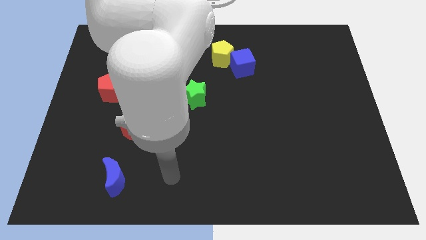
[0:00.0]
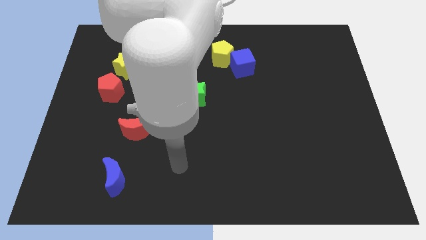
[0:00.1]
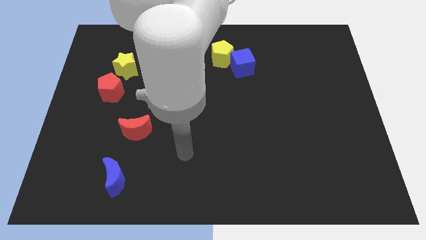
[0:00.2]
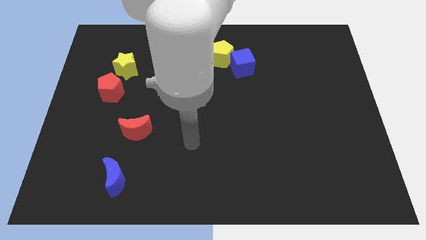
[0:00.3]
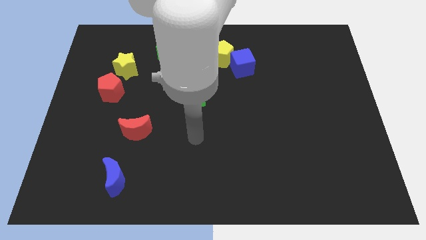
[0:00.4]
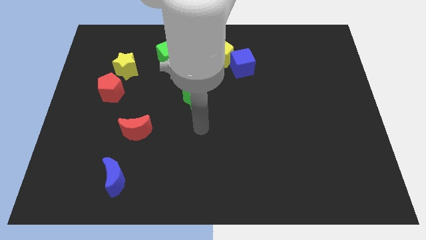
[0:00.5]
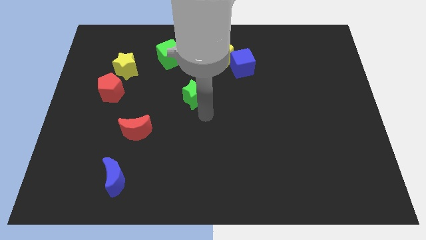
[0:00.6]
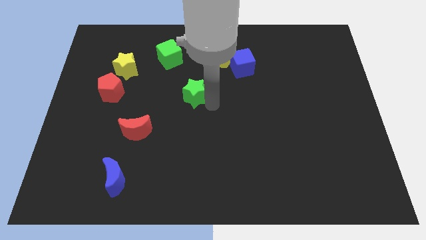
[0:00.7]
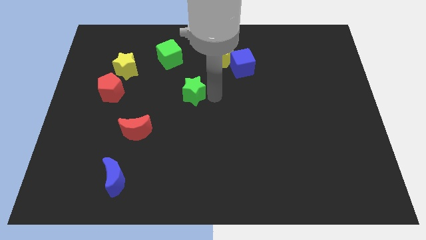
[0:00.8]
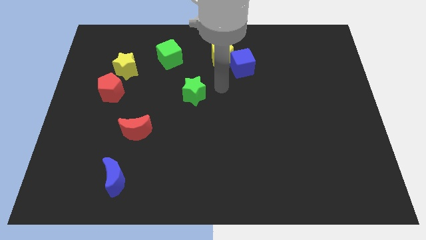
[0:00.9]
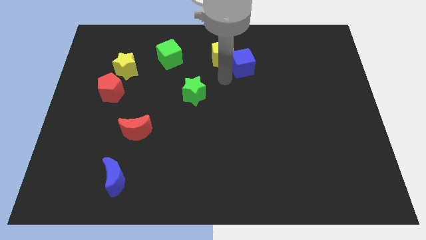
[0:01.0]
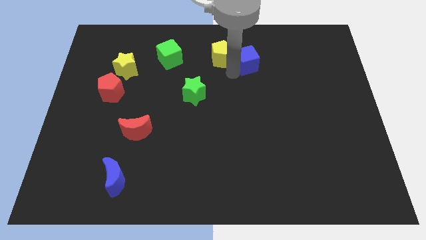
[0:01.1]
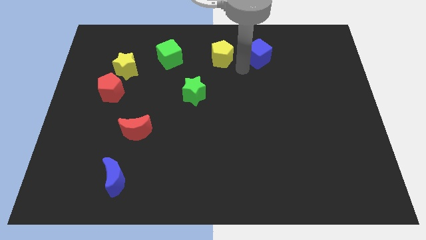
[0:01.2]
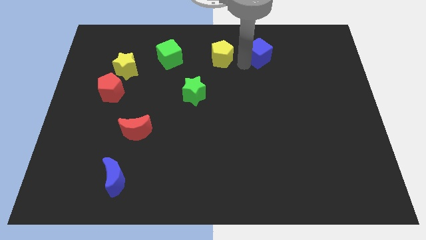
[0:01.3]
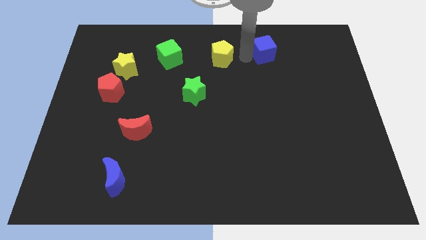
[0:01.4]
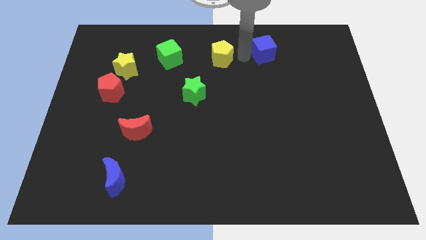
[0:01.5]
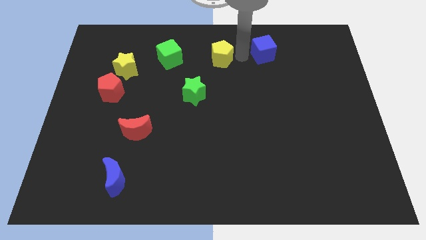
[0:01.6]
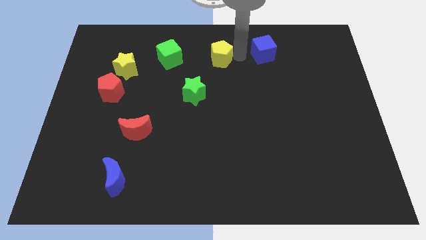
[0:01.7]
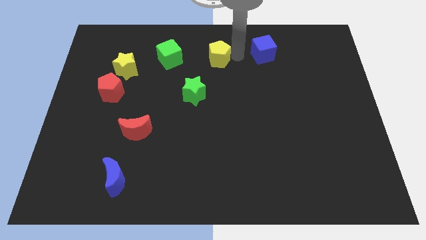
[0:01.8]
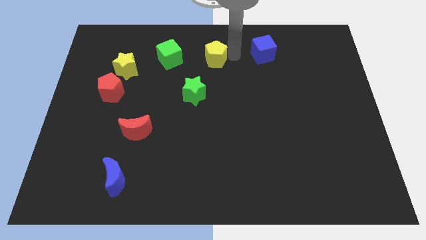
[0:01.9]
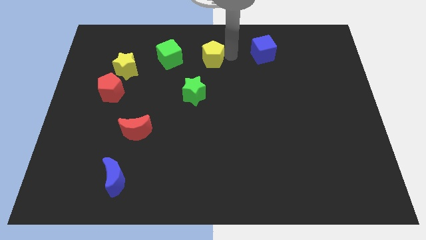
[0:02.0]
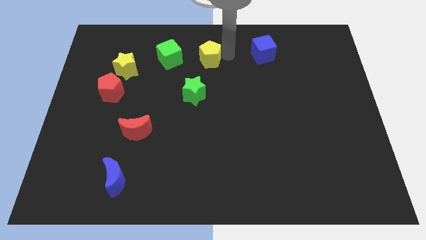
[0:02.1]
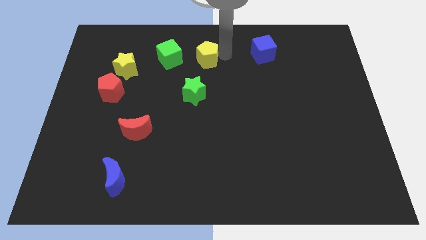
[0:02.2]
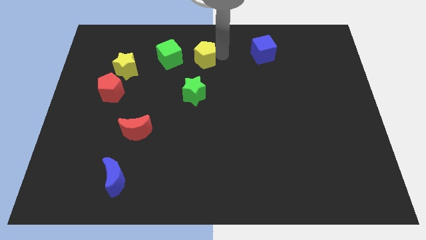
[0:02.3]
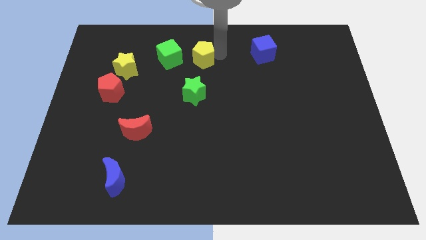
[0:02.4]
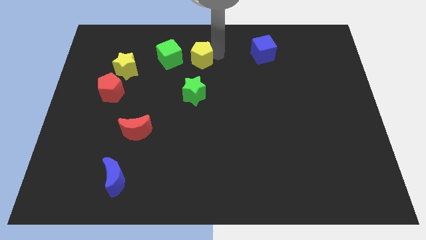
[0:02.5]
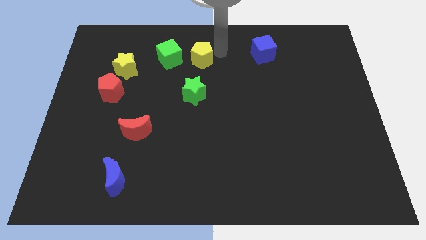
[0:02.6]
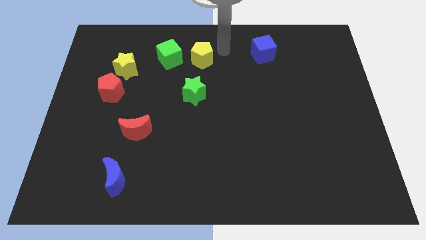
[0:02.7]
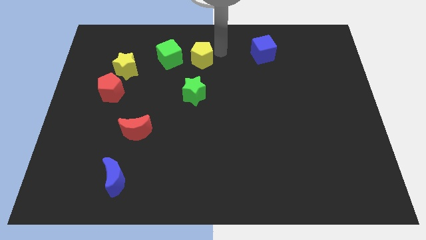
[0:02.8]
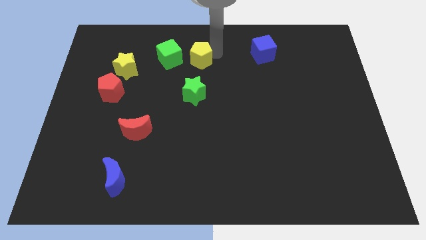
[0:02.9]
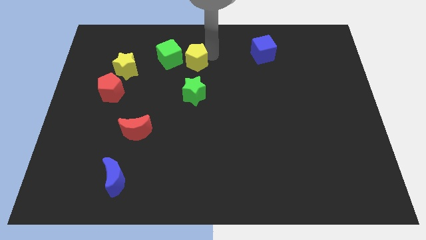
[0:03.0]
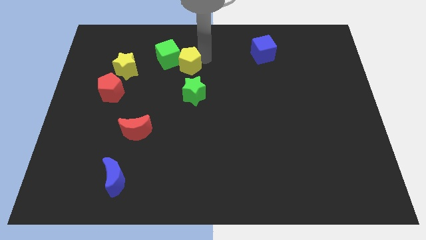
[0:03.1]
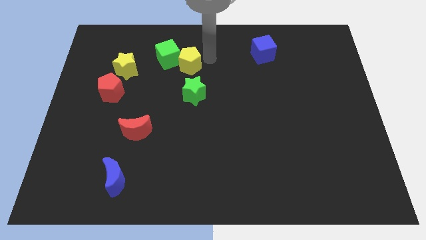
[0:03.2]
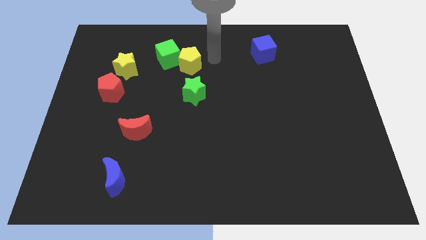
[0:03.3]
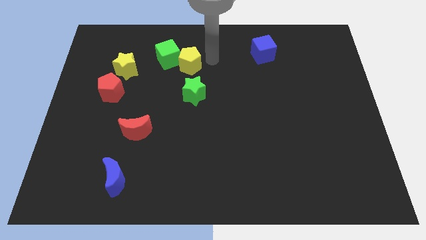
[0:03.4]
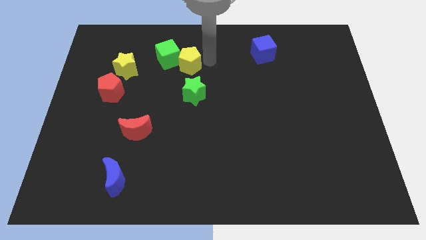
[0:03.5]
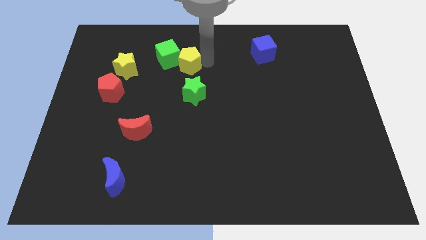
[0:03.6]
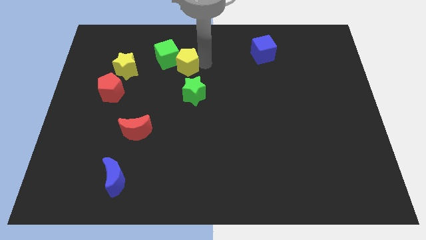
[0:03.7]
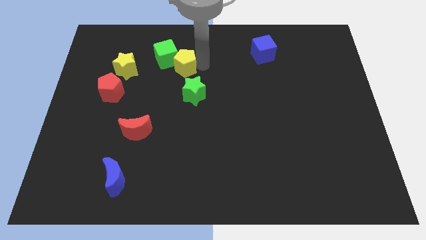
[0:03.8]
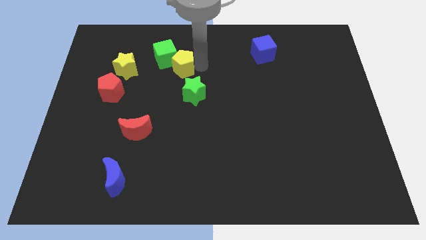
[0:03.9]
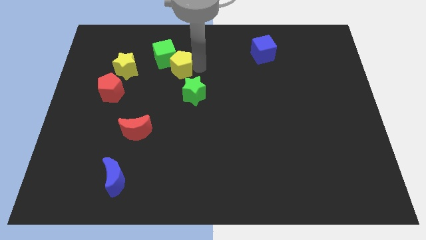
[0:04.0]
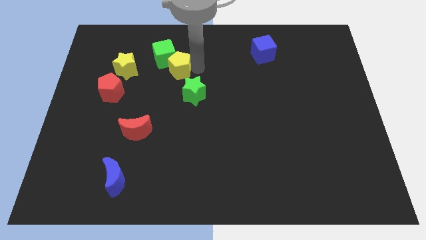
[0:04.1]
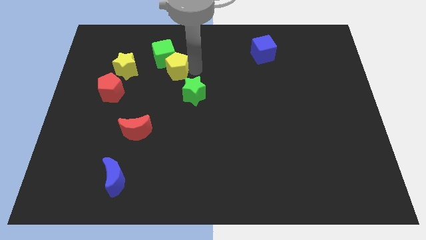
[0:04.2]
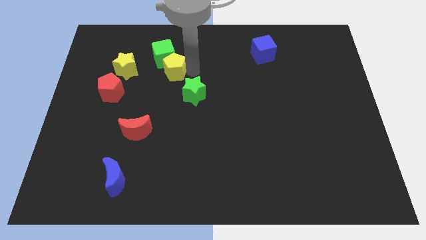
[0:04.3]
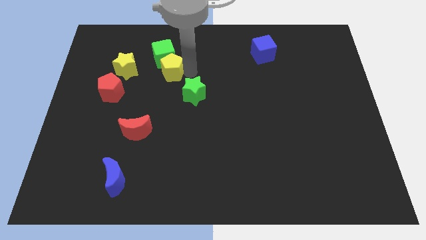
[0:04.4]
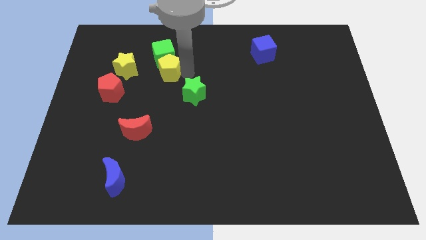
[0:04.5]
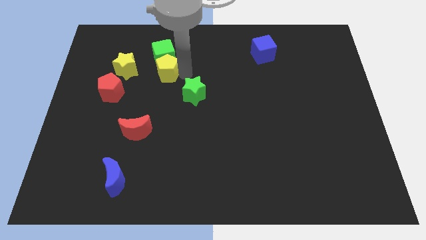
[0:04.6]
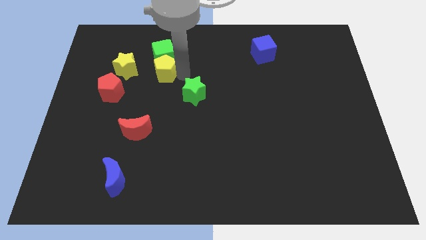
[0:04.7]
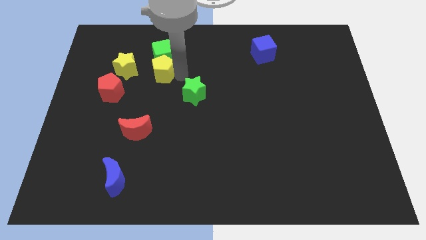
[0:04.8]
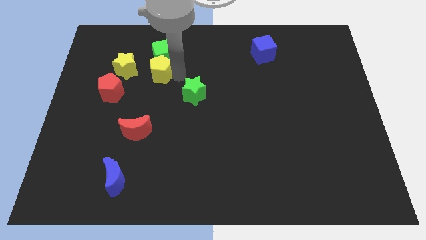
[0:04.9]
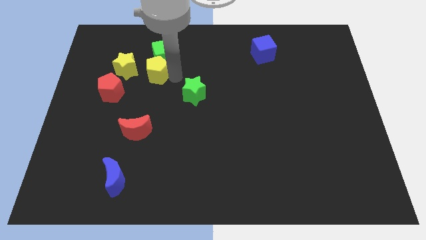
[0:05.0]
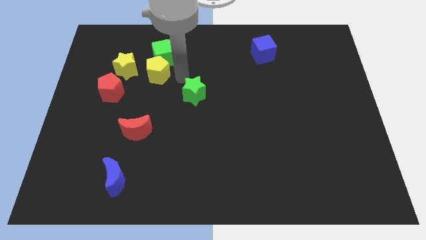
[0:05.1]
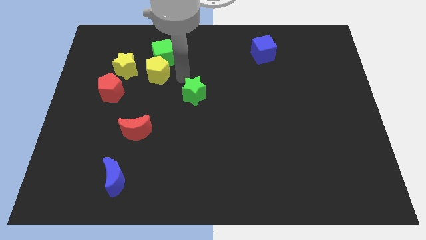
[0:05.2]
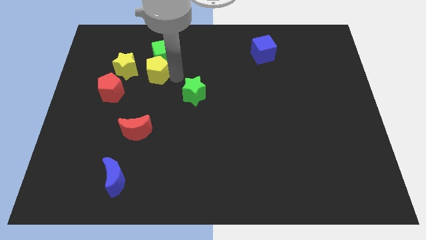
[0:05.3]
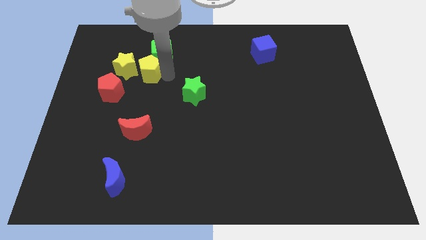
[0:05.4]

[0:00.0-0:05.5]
slide the yellow pentagon close to the yellow star

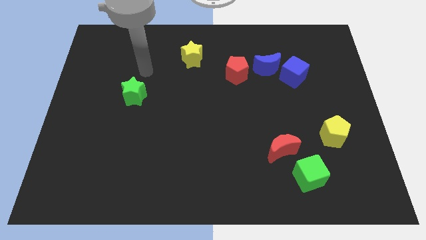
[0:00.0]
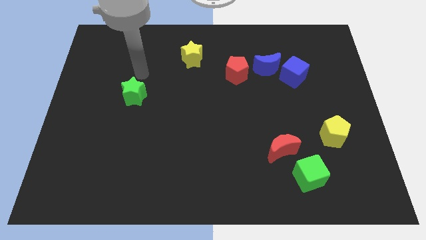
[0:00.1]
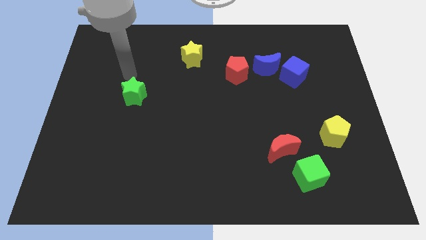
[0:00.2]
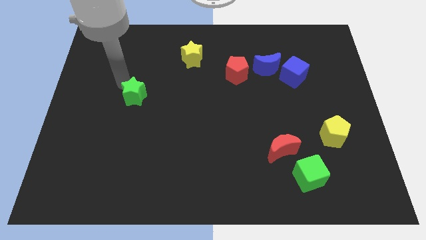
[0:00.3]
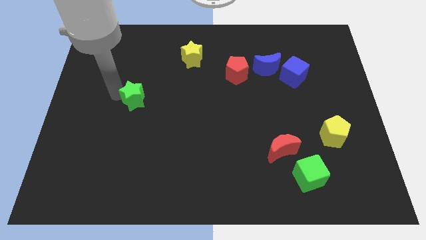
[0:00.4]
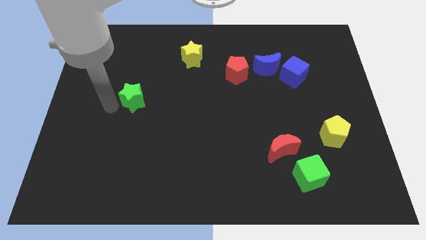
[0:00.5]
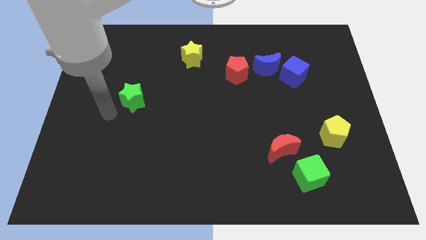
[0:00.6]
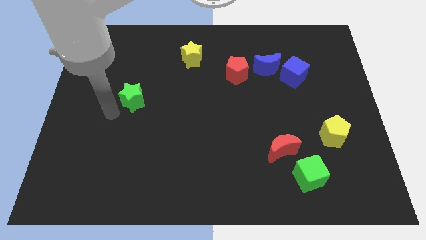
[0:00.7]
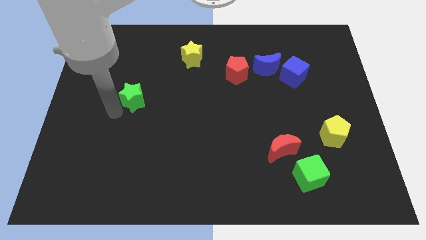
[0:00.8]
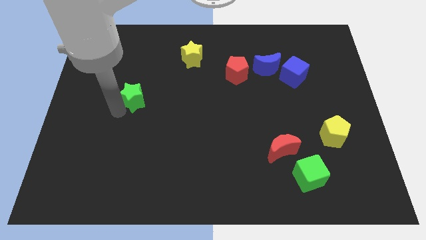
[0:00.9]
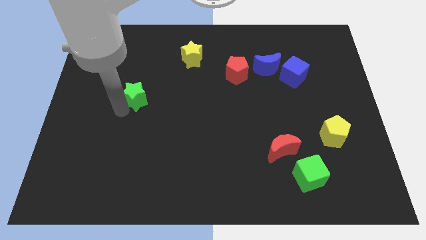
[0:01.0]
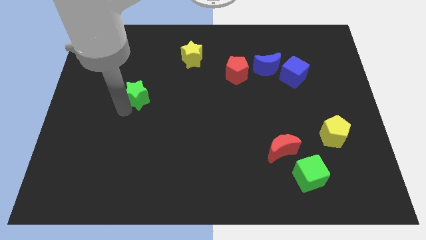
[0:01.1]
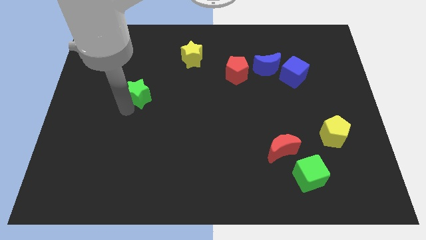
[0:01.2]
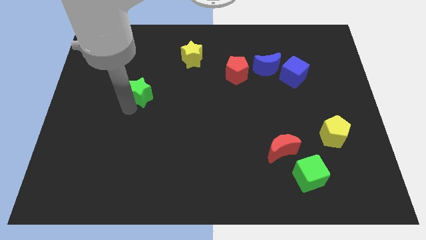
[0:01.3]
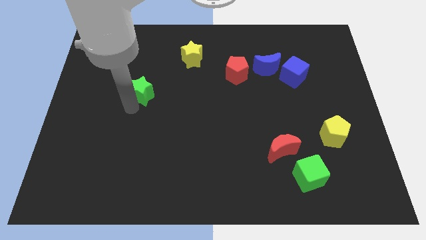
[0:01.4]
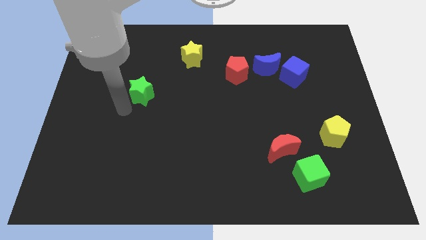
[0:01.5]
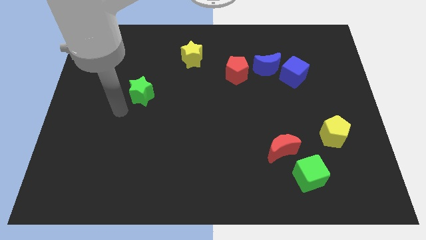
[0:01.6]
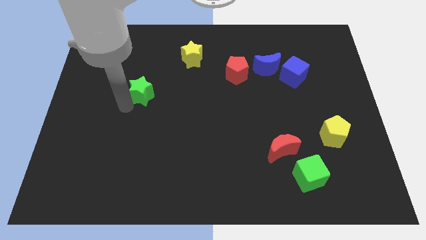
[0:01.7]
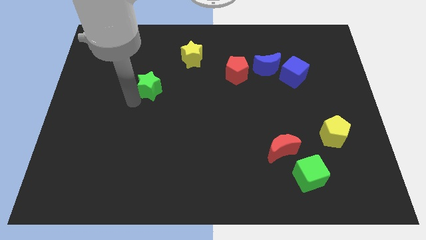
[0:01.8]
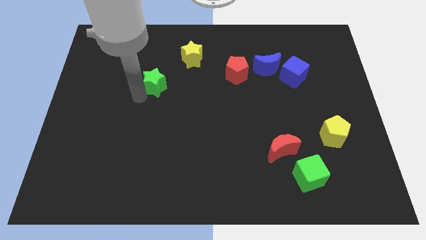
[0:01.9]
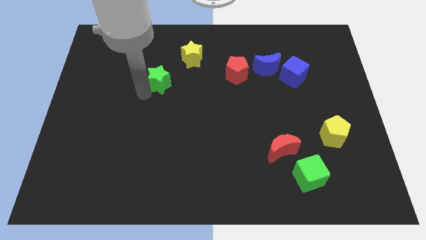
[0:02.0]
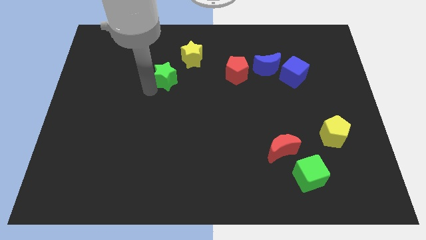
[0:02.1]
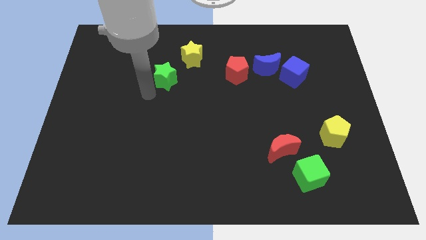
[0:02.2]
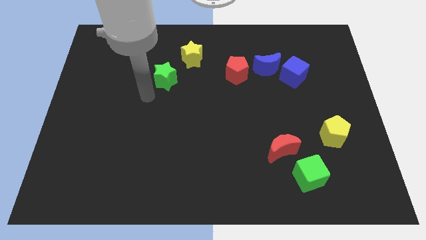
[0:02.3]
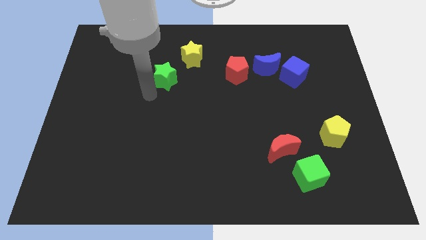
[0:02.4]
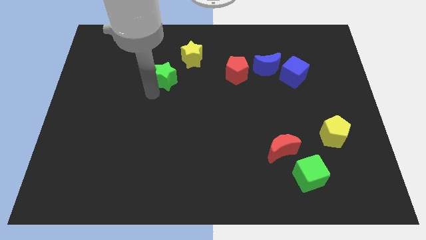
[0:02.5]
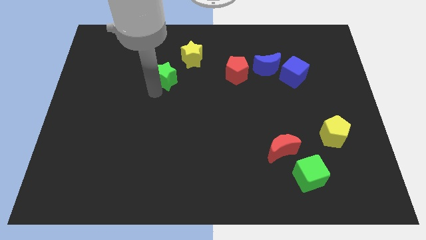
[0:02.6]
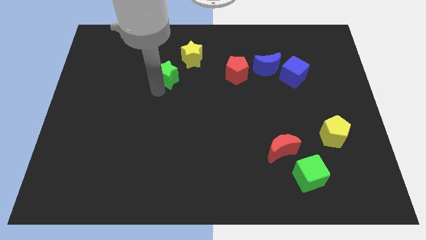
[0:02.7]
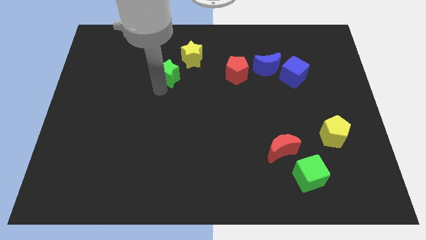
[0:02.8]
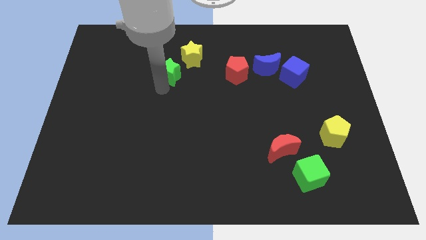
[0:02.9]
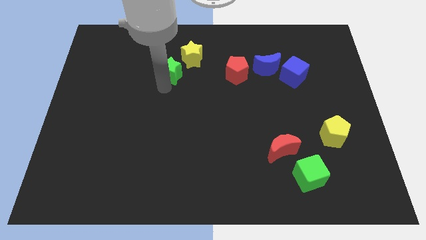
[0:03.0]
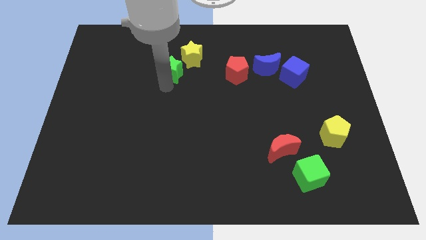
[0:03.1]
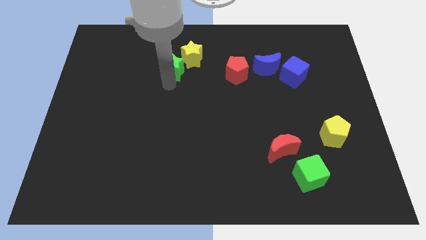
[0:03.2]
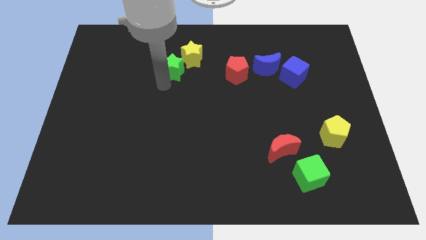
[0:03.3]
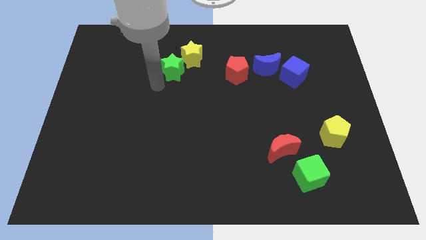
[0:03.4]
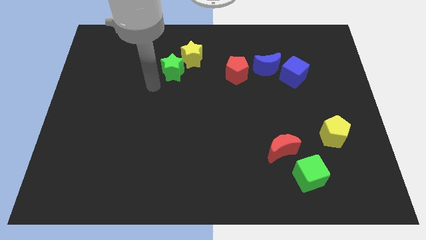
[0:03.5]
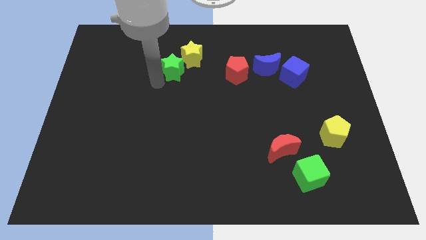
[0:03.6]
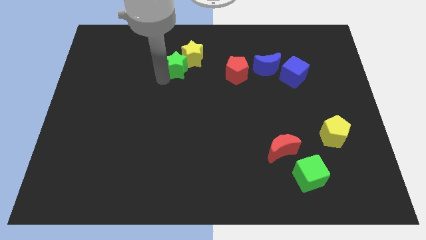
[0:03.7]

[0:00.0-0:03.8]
slide the green star to the yellow star
